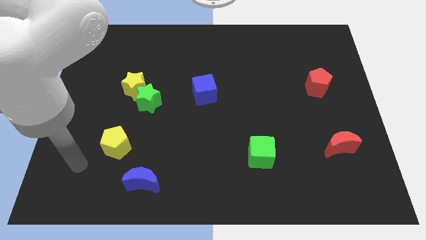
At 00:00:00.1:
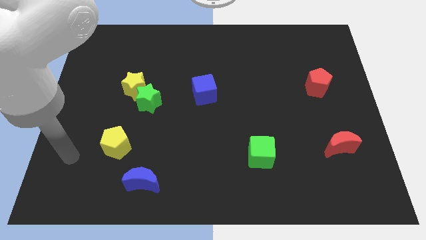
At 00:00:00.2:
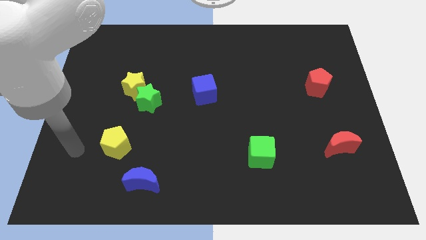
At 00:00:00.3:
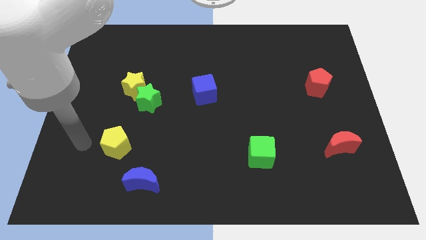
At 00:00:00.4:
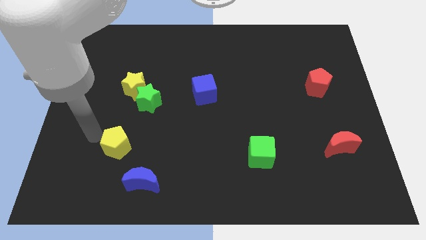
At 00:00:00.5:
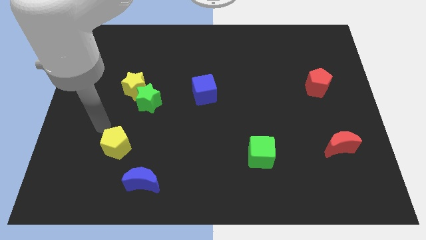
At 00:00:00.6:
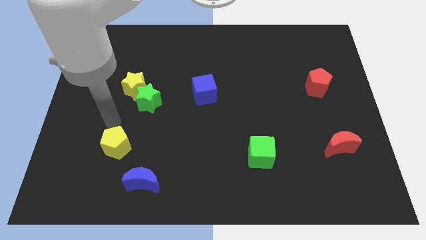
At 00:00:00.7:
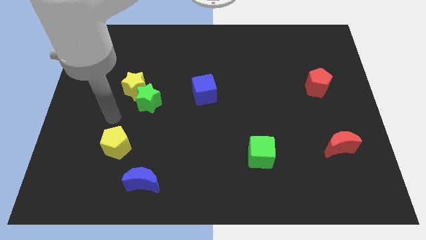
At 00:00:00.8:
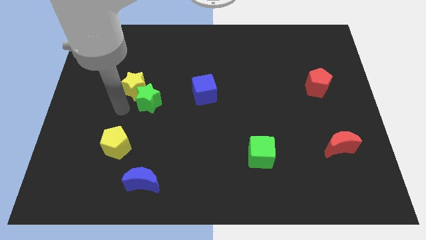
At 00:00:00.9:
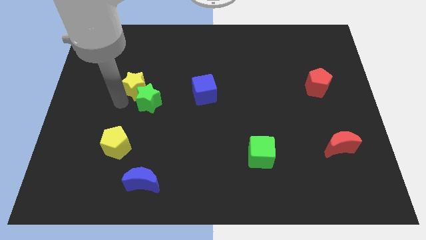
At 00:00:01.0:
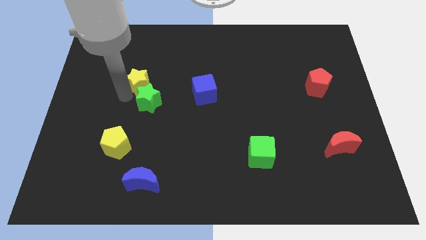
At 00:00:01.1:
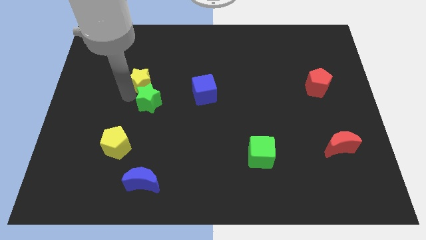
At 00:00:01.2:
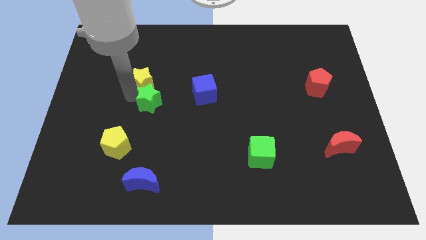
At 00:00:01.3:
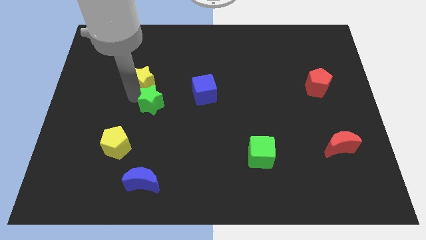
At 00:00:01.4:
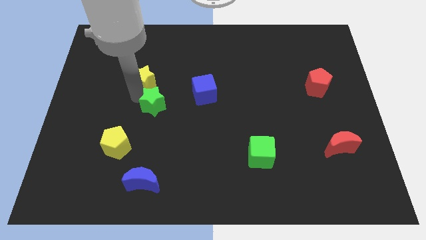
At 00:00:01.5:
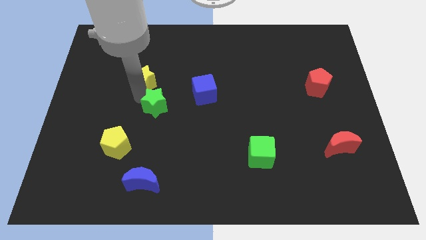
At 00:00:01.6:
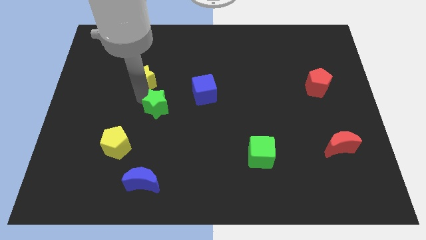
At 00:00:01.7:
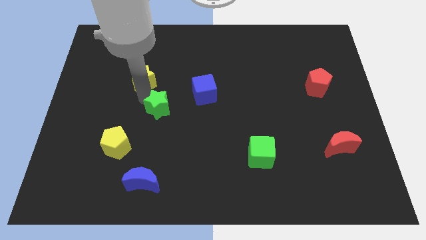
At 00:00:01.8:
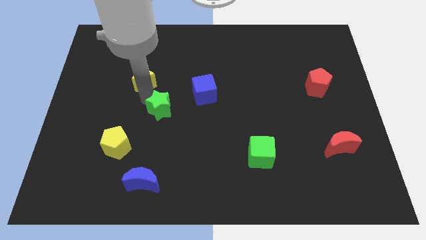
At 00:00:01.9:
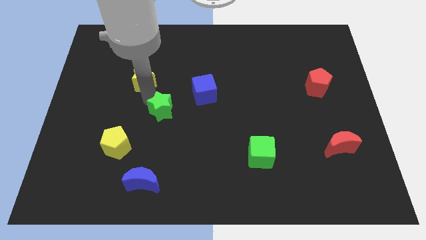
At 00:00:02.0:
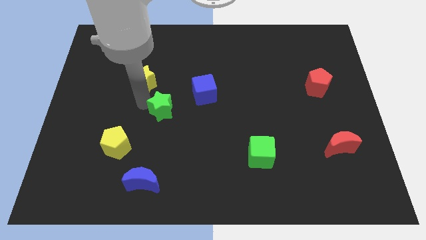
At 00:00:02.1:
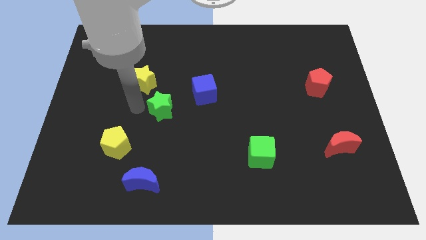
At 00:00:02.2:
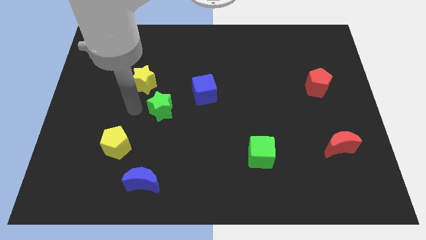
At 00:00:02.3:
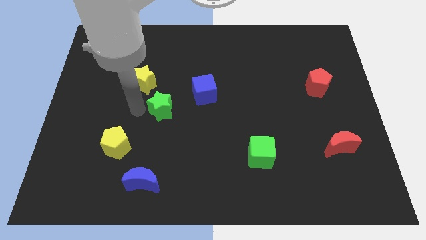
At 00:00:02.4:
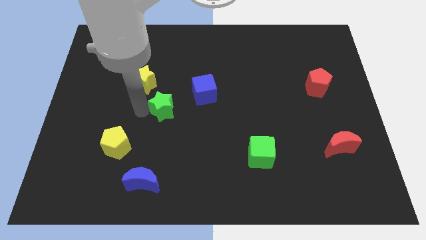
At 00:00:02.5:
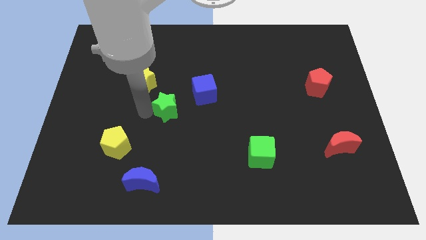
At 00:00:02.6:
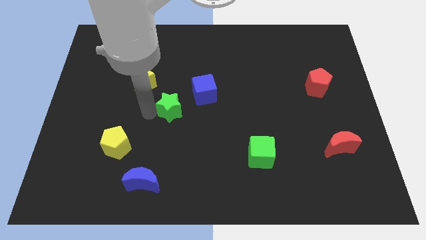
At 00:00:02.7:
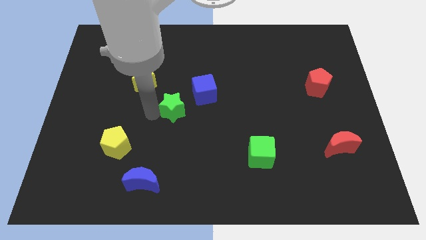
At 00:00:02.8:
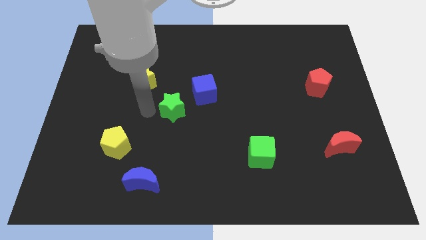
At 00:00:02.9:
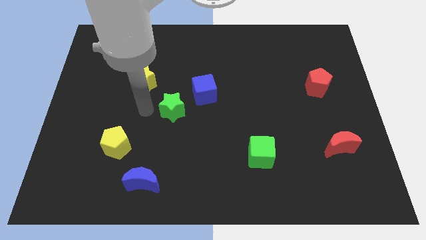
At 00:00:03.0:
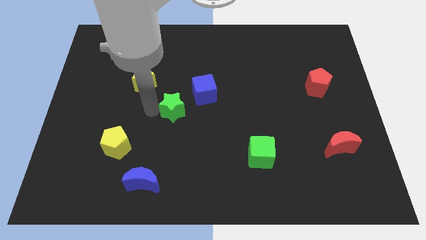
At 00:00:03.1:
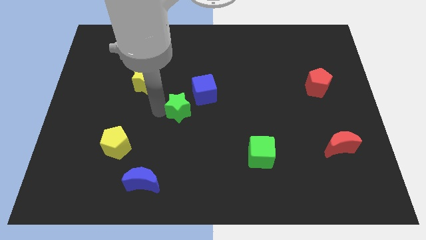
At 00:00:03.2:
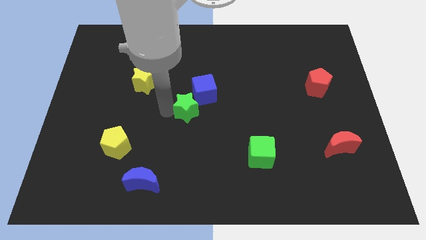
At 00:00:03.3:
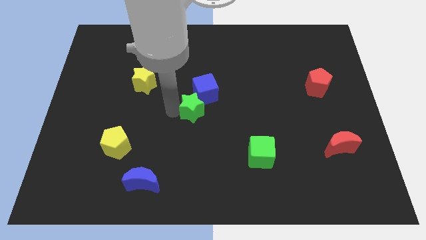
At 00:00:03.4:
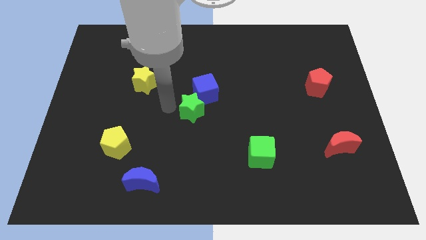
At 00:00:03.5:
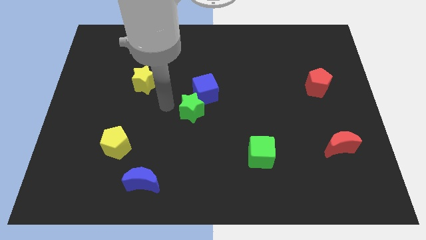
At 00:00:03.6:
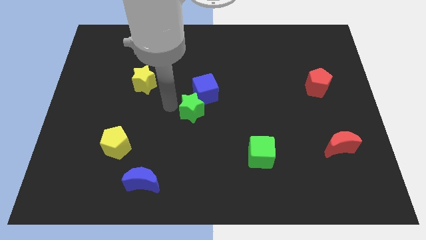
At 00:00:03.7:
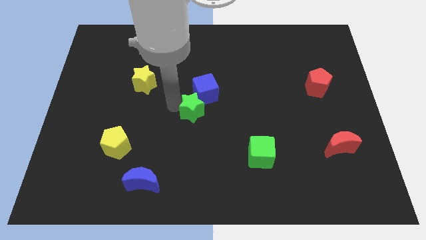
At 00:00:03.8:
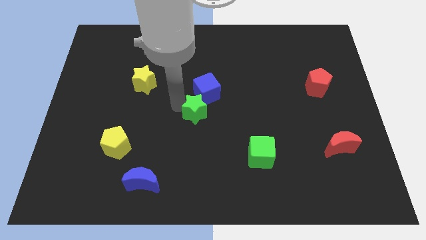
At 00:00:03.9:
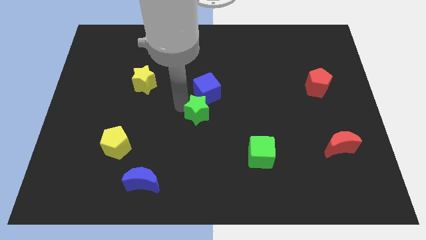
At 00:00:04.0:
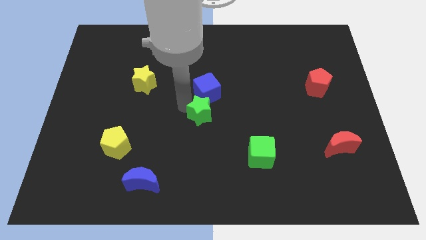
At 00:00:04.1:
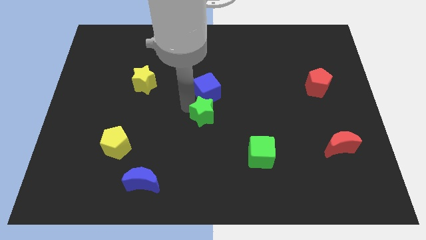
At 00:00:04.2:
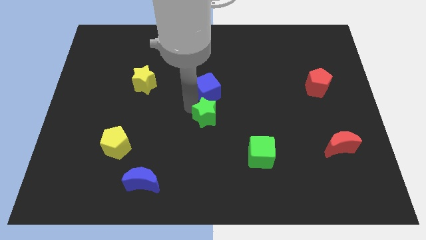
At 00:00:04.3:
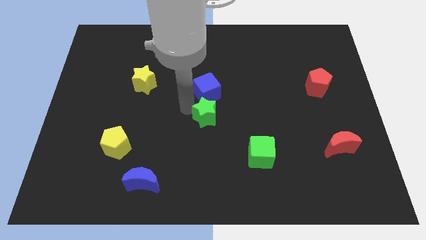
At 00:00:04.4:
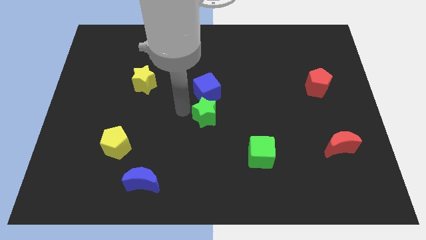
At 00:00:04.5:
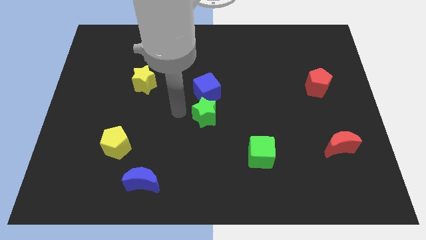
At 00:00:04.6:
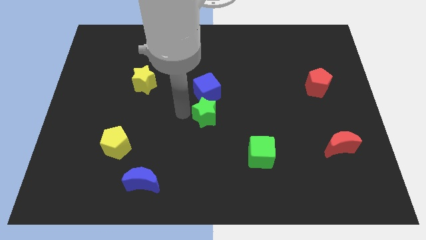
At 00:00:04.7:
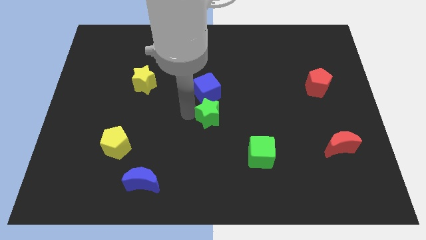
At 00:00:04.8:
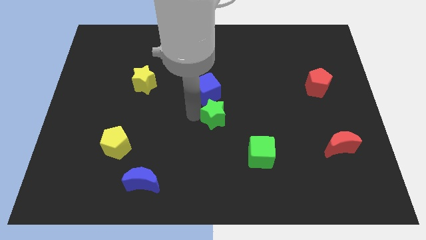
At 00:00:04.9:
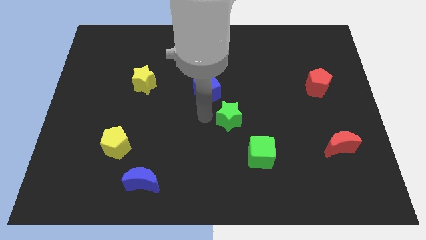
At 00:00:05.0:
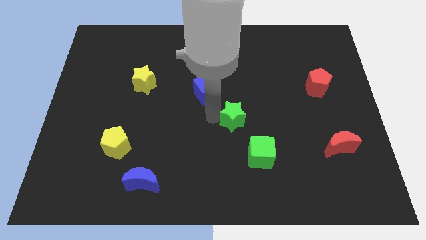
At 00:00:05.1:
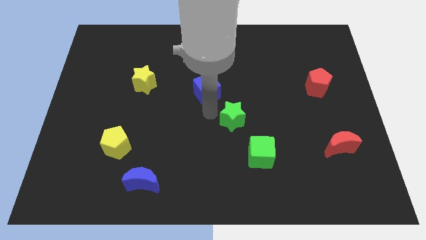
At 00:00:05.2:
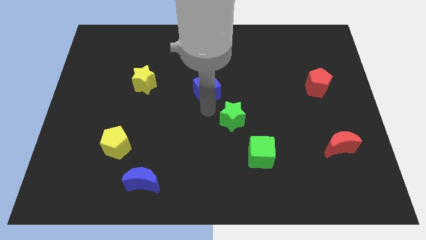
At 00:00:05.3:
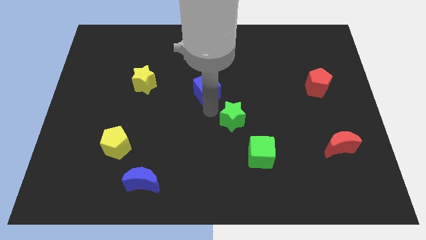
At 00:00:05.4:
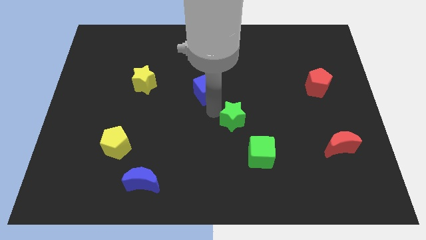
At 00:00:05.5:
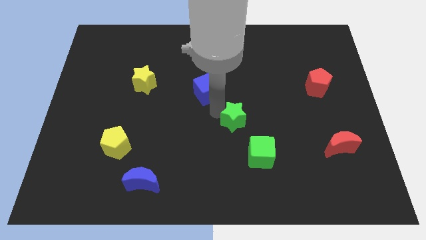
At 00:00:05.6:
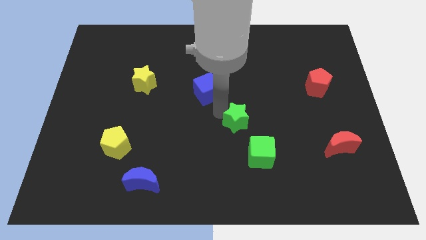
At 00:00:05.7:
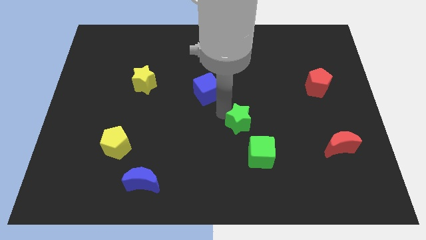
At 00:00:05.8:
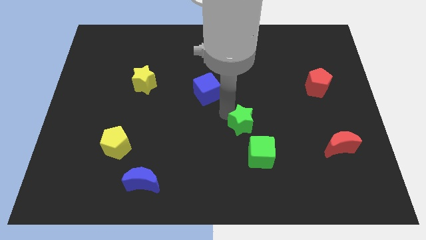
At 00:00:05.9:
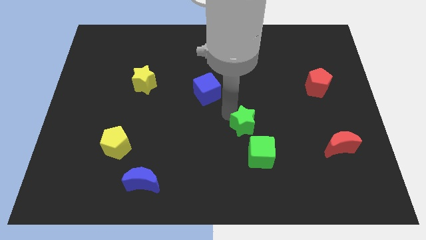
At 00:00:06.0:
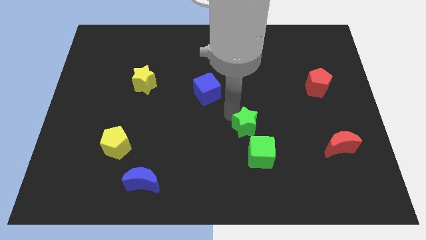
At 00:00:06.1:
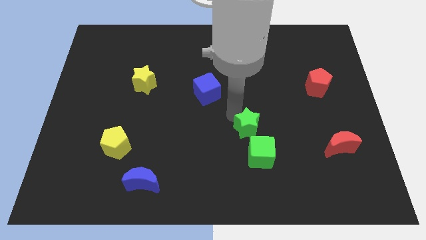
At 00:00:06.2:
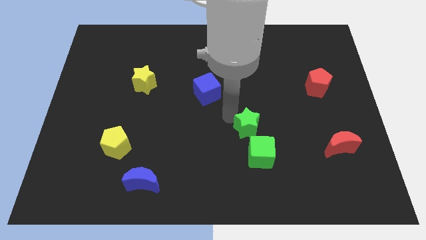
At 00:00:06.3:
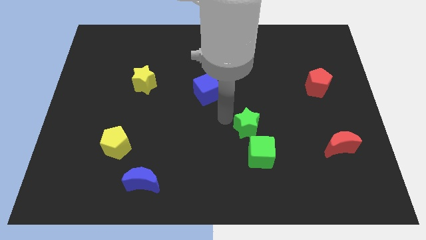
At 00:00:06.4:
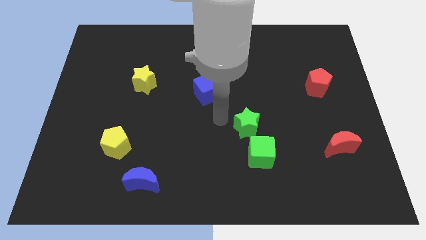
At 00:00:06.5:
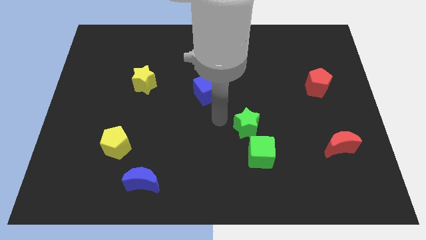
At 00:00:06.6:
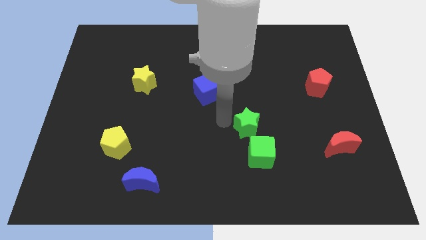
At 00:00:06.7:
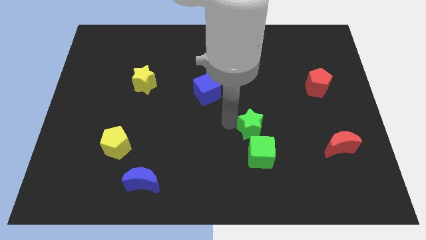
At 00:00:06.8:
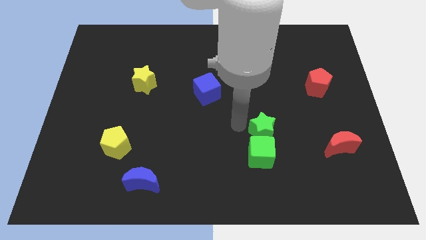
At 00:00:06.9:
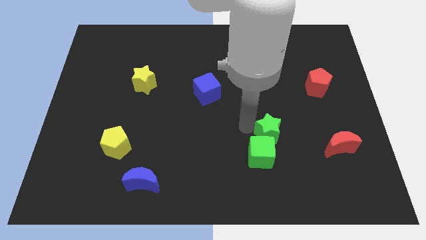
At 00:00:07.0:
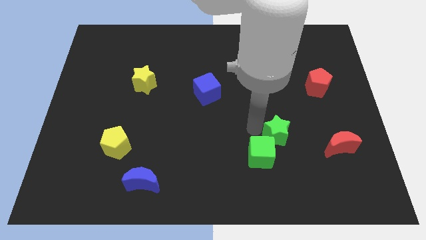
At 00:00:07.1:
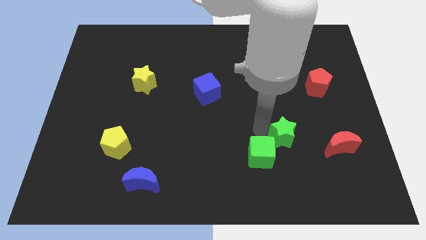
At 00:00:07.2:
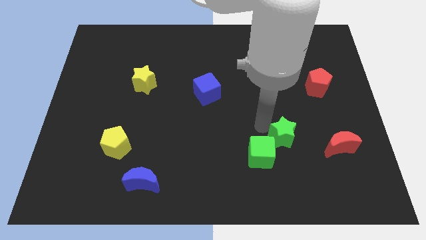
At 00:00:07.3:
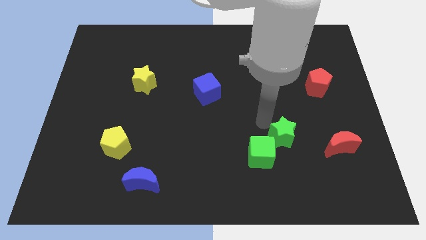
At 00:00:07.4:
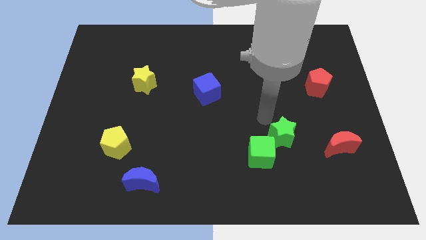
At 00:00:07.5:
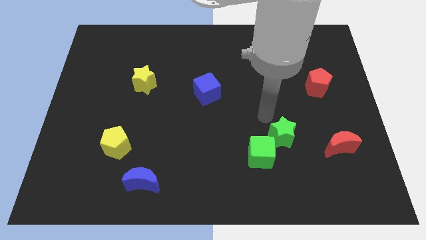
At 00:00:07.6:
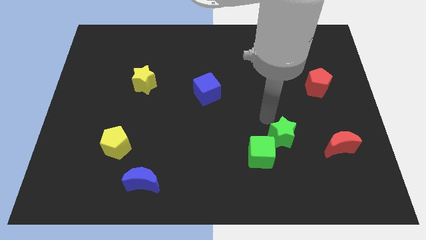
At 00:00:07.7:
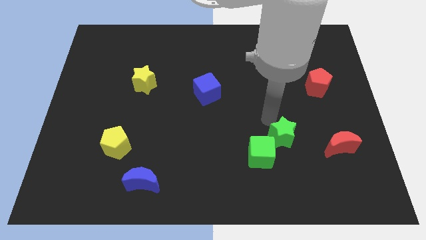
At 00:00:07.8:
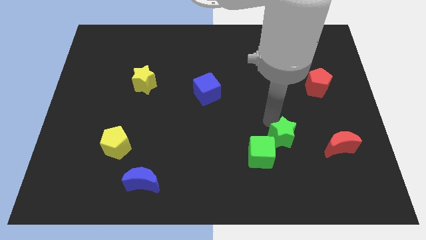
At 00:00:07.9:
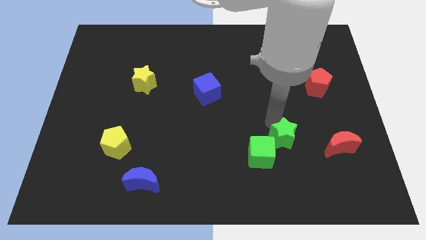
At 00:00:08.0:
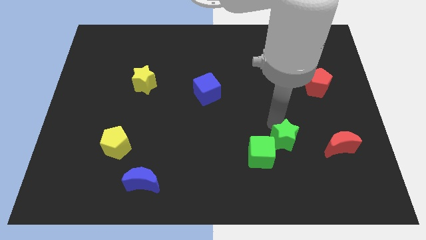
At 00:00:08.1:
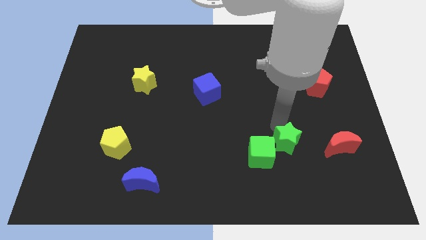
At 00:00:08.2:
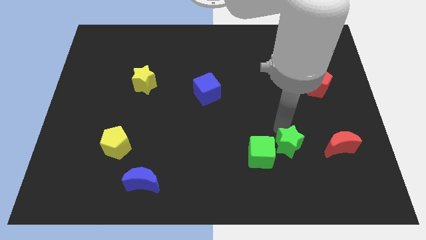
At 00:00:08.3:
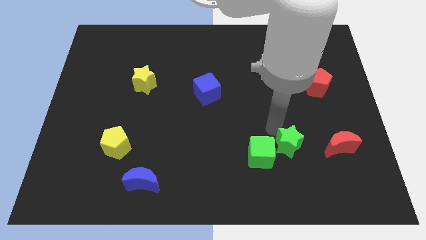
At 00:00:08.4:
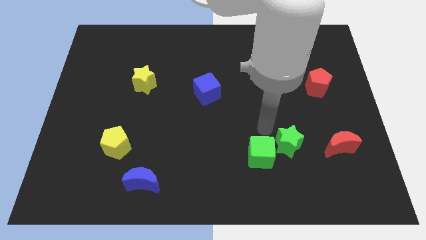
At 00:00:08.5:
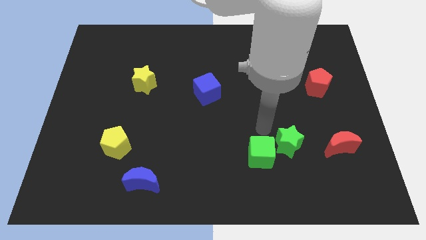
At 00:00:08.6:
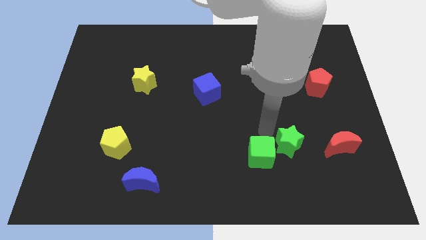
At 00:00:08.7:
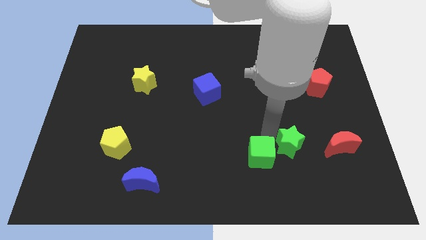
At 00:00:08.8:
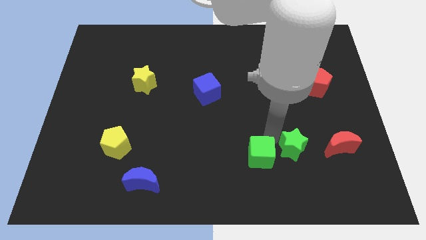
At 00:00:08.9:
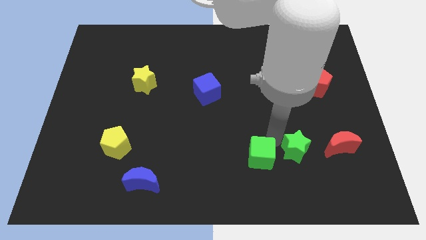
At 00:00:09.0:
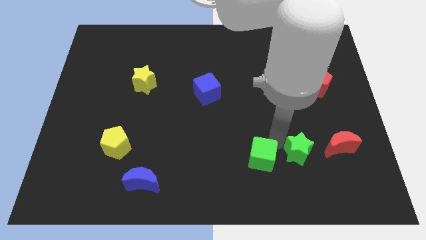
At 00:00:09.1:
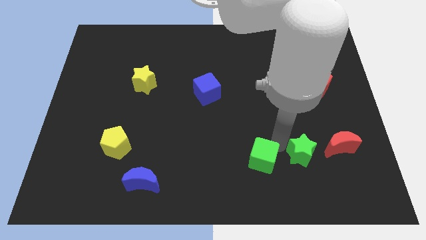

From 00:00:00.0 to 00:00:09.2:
move the green star to the bottom left of the red moon
